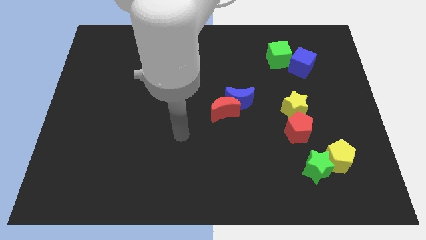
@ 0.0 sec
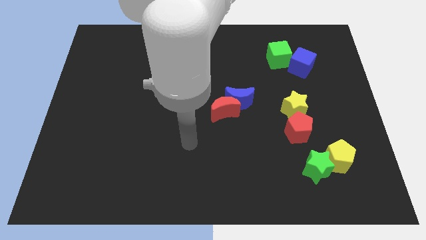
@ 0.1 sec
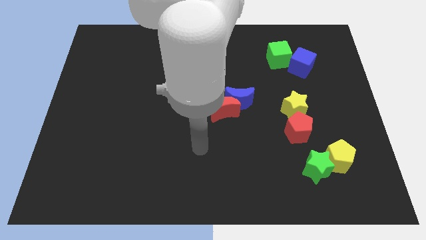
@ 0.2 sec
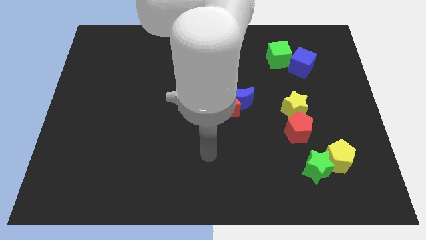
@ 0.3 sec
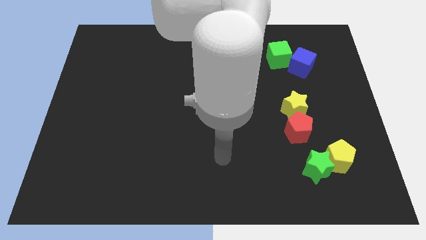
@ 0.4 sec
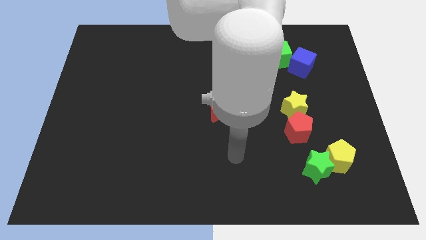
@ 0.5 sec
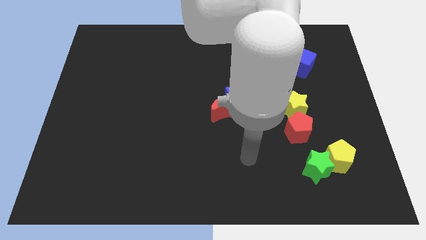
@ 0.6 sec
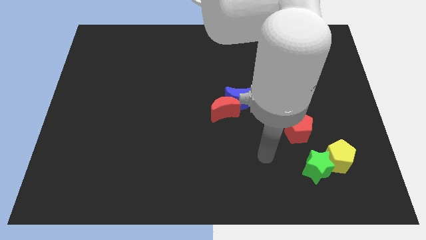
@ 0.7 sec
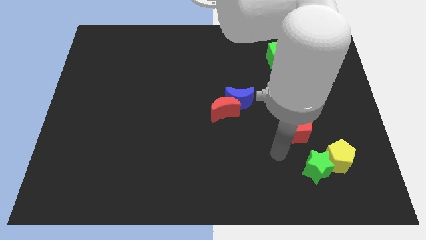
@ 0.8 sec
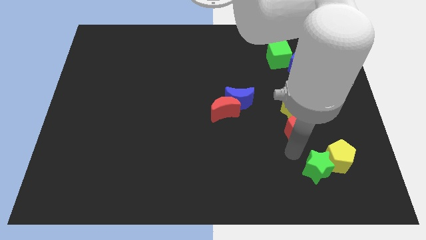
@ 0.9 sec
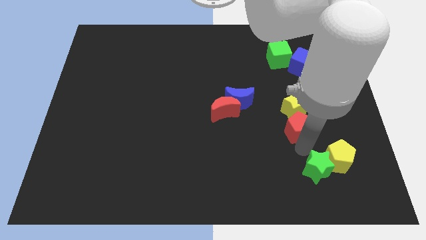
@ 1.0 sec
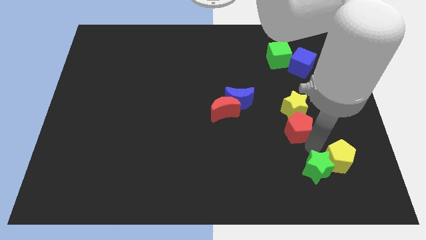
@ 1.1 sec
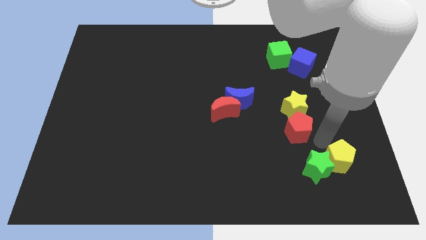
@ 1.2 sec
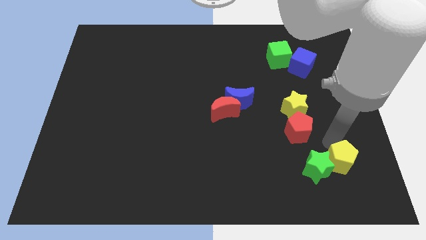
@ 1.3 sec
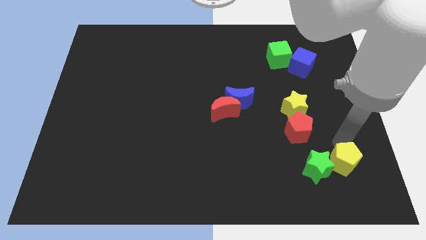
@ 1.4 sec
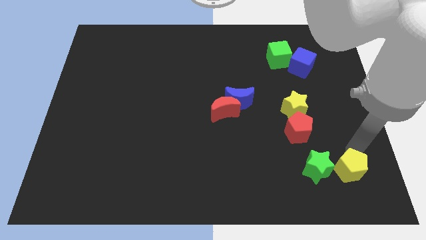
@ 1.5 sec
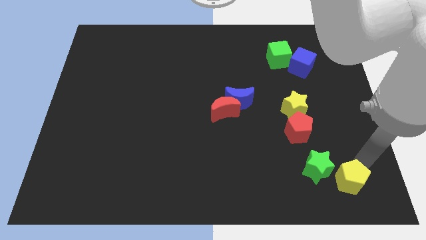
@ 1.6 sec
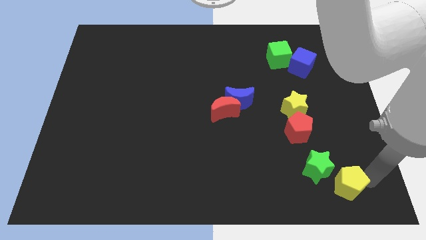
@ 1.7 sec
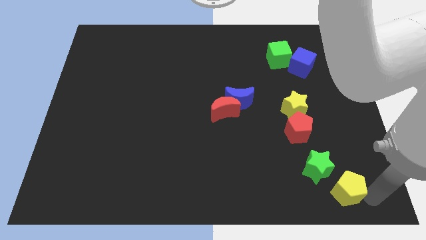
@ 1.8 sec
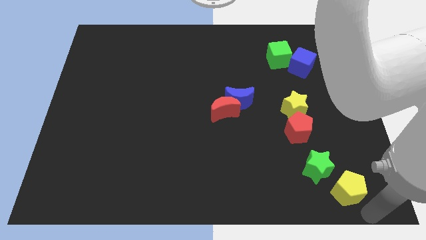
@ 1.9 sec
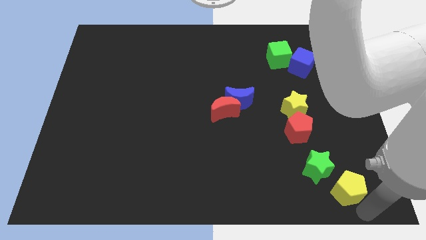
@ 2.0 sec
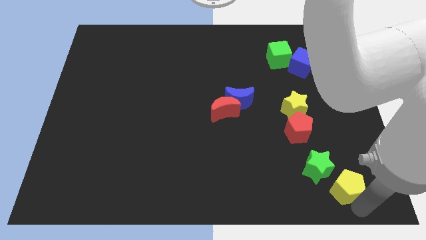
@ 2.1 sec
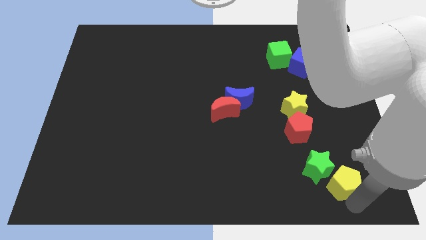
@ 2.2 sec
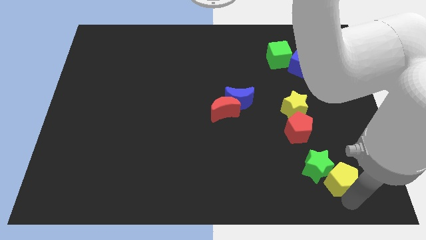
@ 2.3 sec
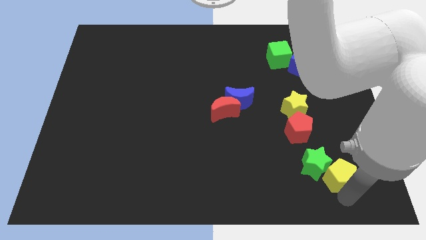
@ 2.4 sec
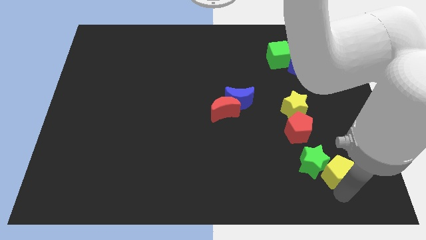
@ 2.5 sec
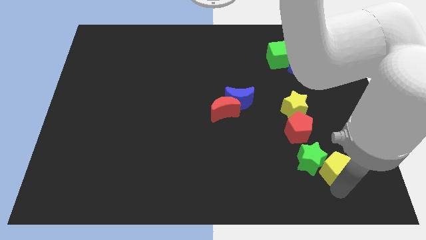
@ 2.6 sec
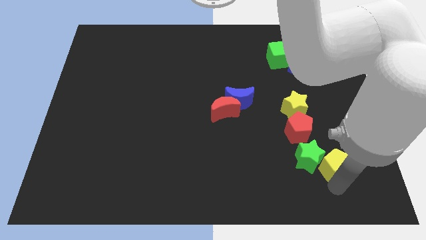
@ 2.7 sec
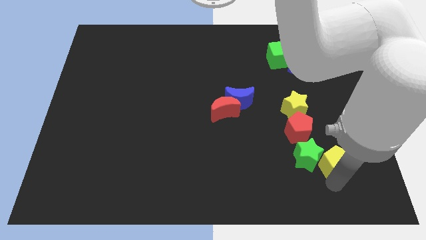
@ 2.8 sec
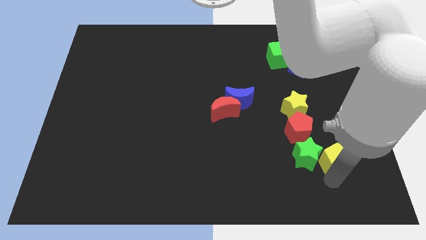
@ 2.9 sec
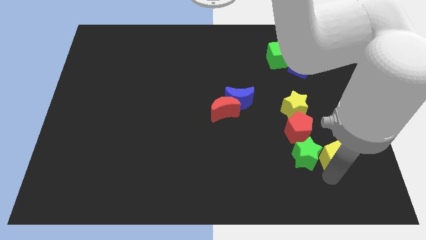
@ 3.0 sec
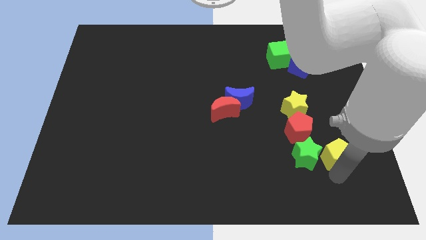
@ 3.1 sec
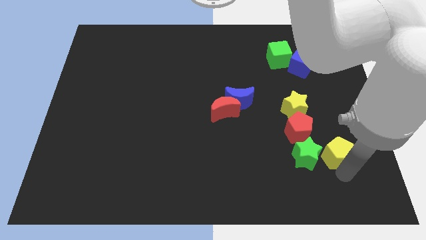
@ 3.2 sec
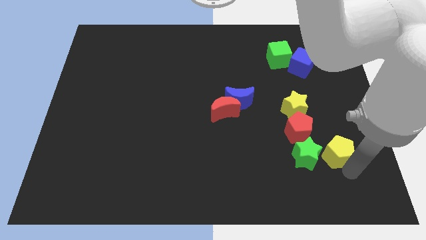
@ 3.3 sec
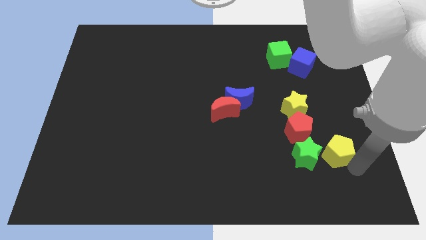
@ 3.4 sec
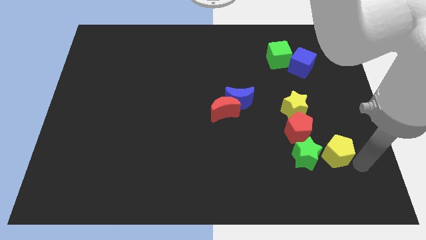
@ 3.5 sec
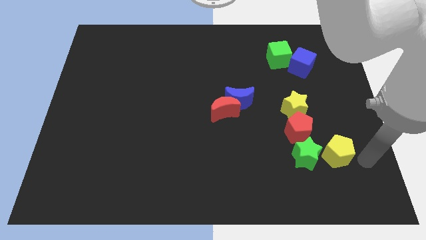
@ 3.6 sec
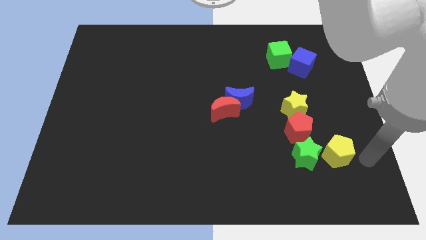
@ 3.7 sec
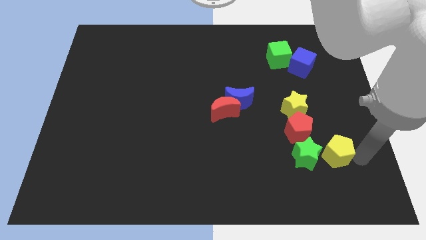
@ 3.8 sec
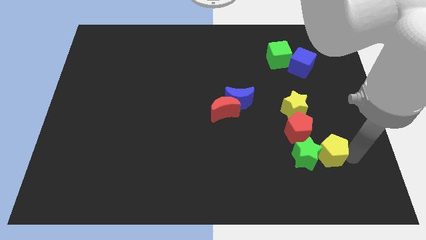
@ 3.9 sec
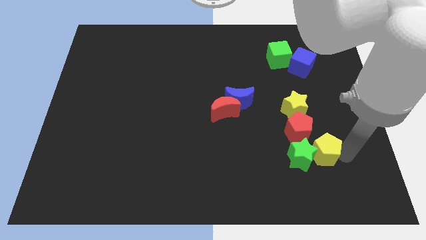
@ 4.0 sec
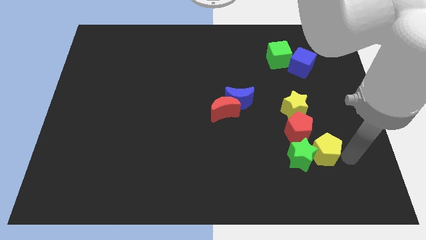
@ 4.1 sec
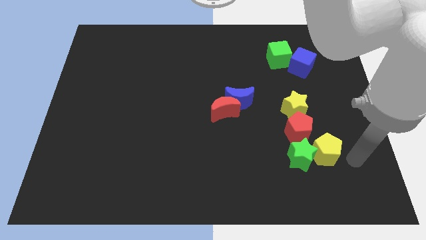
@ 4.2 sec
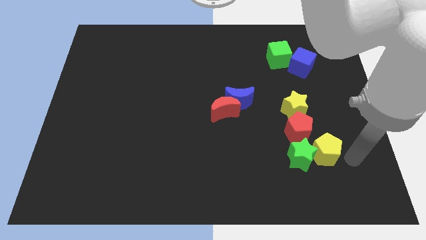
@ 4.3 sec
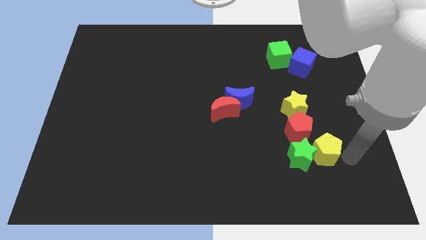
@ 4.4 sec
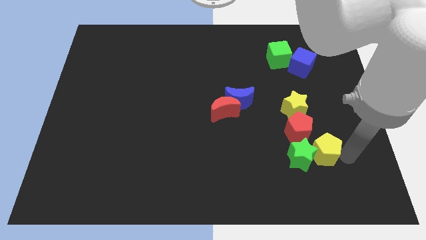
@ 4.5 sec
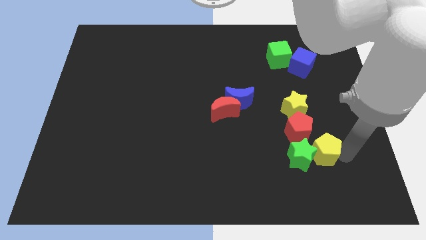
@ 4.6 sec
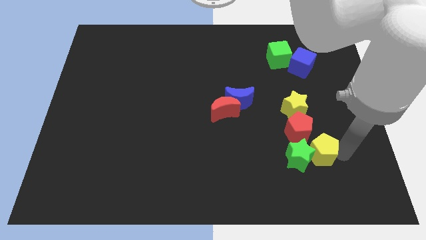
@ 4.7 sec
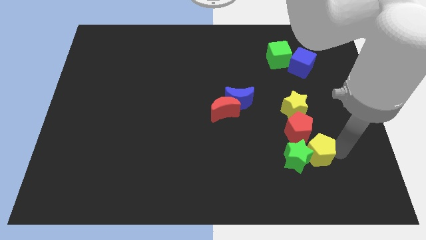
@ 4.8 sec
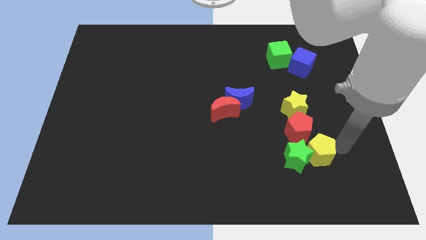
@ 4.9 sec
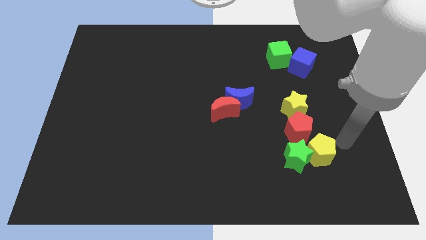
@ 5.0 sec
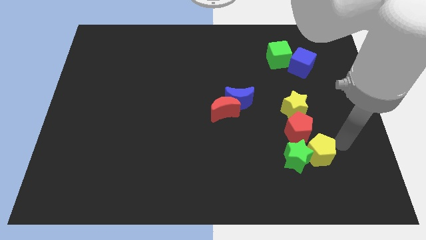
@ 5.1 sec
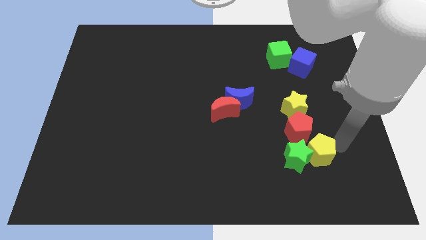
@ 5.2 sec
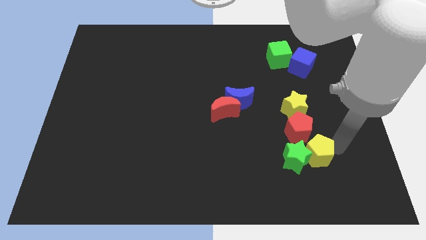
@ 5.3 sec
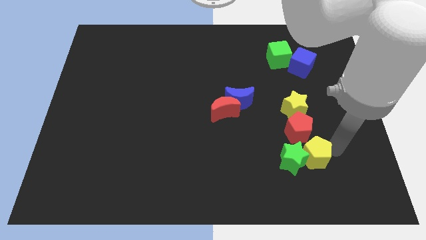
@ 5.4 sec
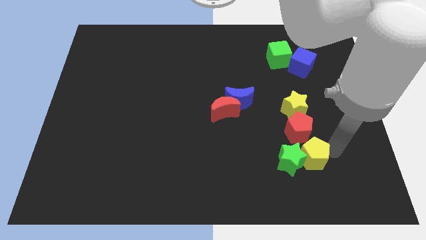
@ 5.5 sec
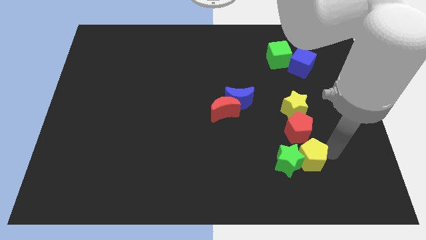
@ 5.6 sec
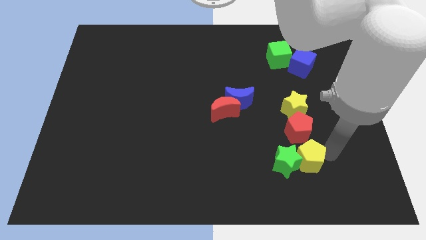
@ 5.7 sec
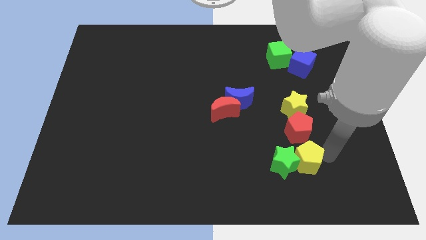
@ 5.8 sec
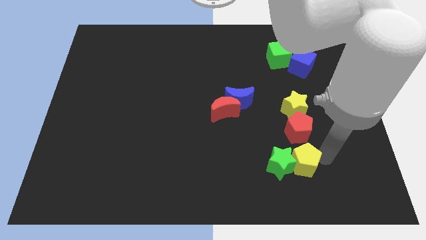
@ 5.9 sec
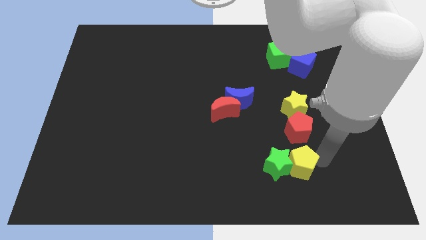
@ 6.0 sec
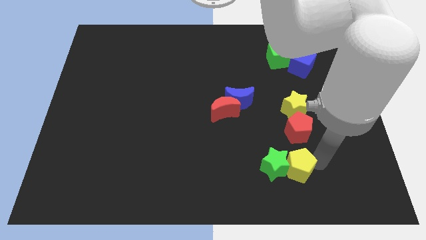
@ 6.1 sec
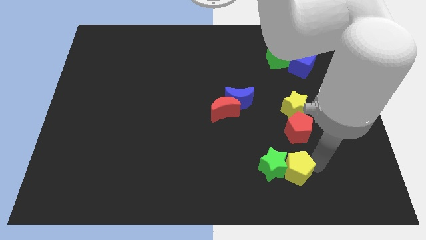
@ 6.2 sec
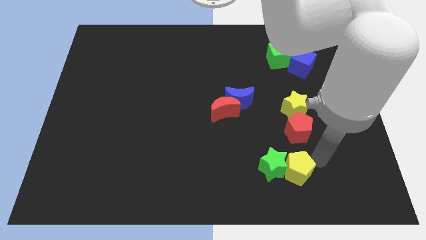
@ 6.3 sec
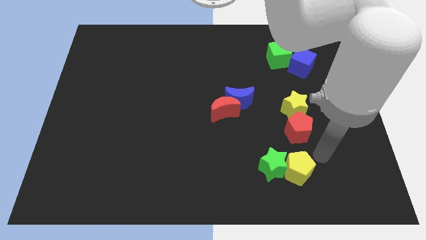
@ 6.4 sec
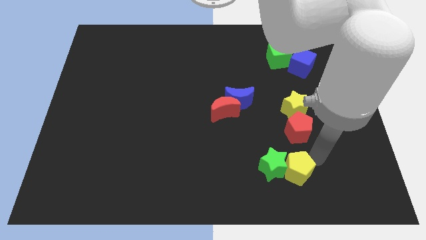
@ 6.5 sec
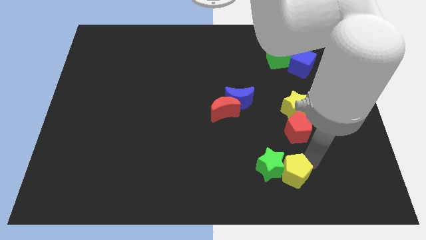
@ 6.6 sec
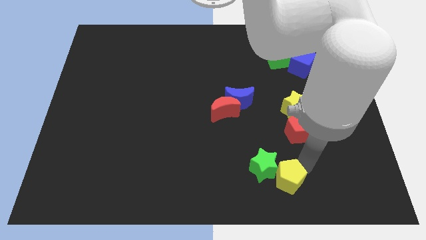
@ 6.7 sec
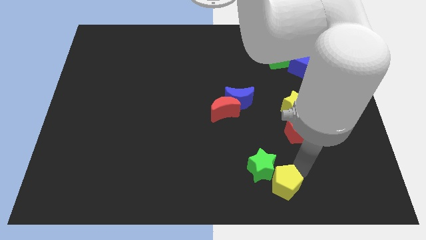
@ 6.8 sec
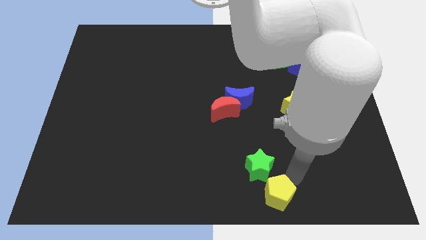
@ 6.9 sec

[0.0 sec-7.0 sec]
move the yellow pentagon to the bottom
